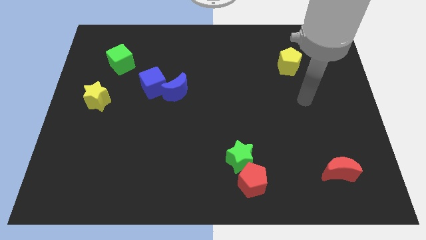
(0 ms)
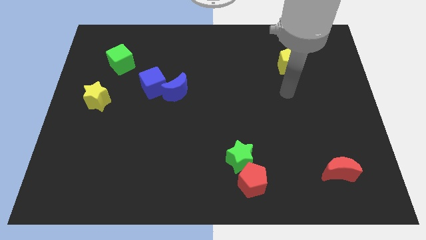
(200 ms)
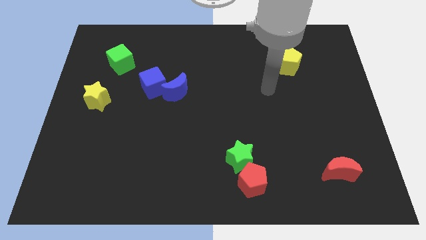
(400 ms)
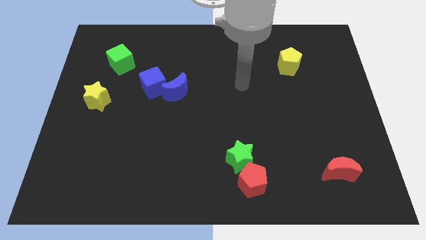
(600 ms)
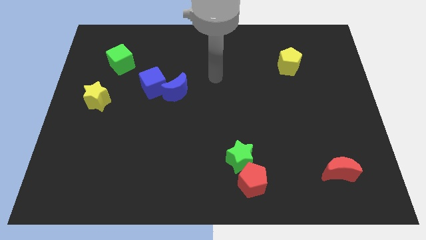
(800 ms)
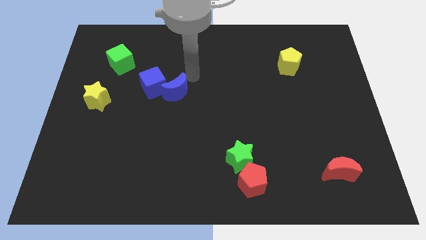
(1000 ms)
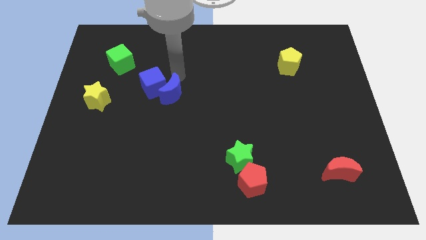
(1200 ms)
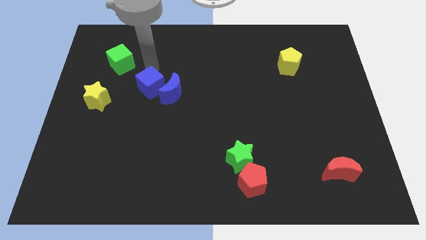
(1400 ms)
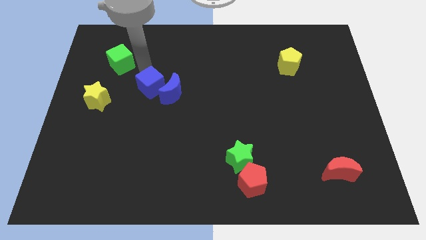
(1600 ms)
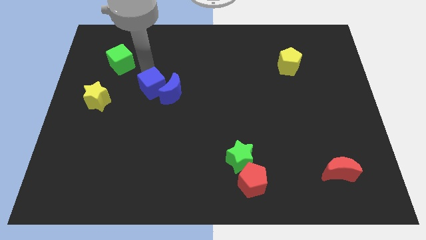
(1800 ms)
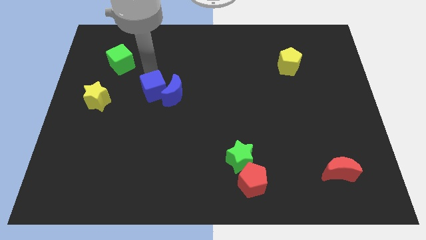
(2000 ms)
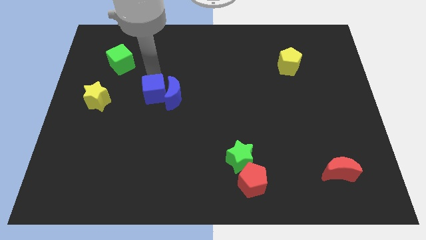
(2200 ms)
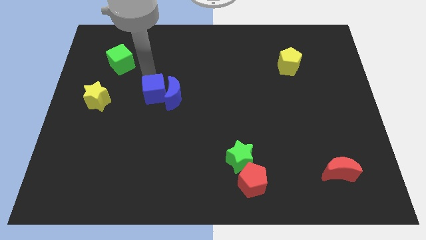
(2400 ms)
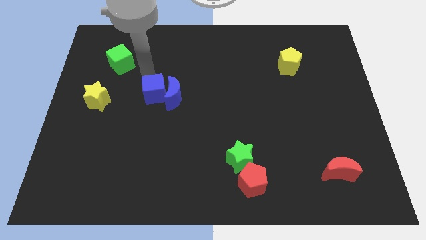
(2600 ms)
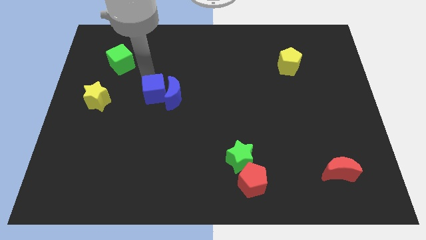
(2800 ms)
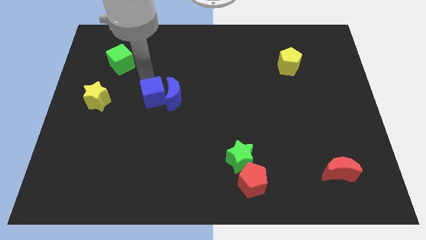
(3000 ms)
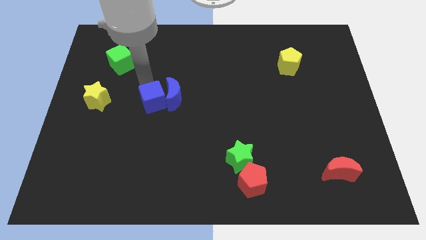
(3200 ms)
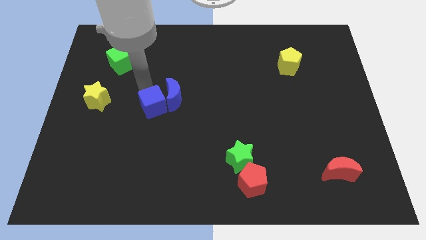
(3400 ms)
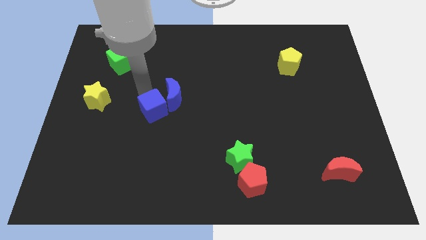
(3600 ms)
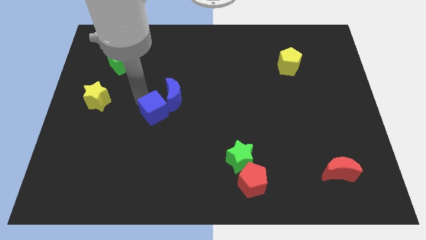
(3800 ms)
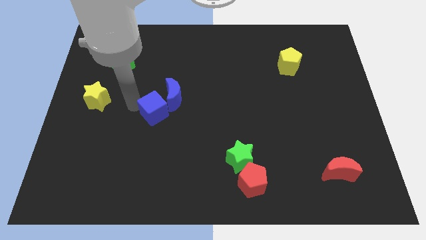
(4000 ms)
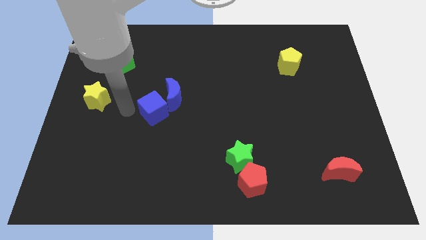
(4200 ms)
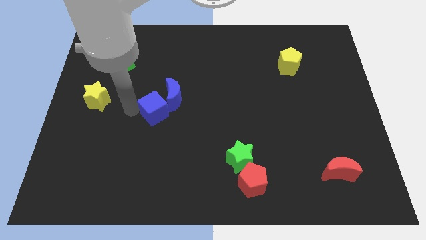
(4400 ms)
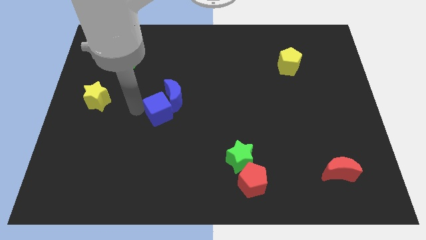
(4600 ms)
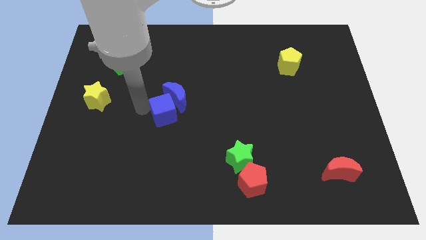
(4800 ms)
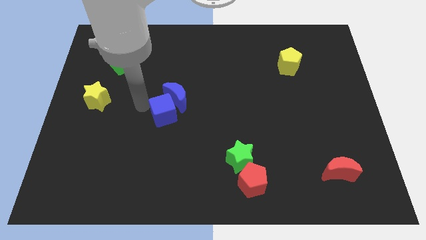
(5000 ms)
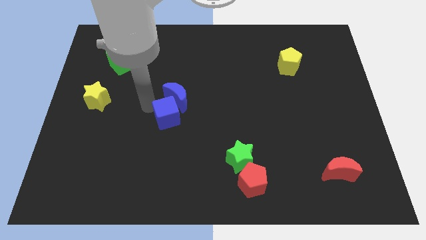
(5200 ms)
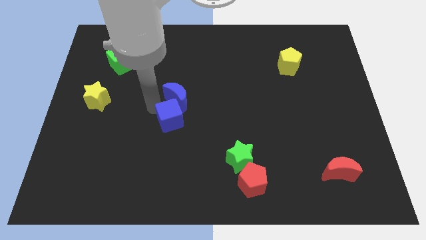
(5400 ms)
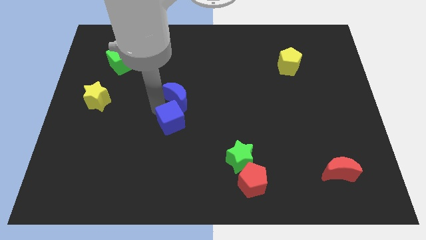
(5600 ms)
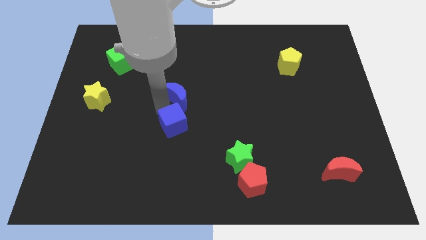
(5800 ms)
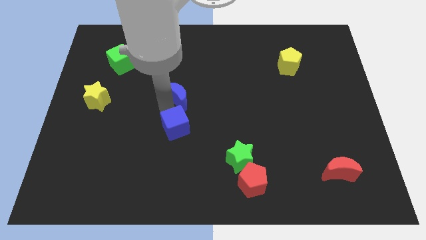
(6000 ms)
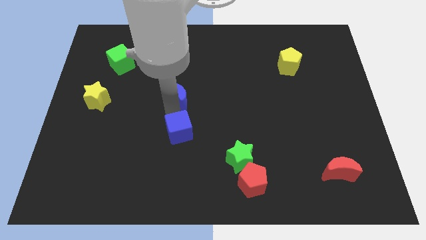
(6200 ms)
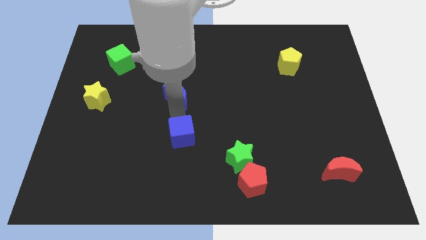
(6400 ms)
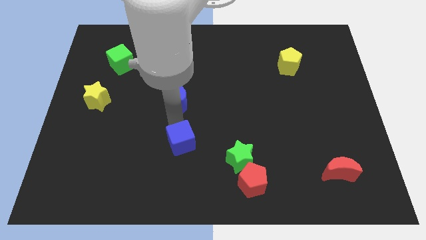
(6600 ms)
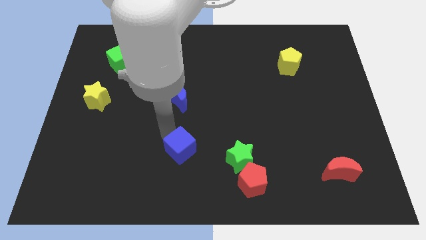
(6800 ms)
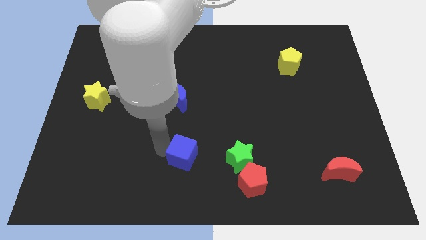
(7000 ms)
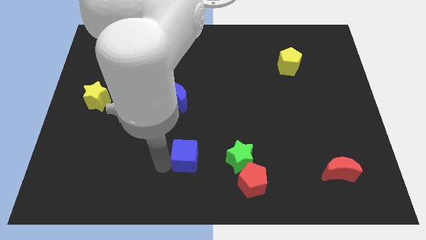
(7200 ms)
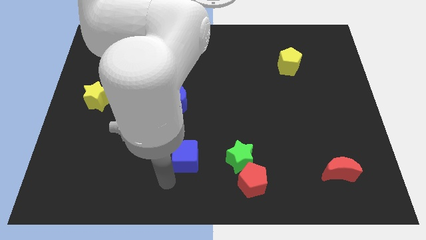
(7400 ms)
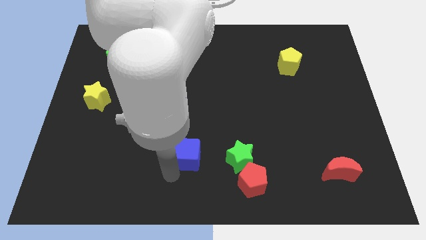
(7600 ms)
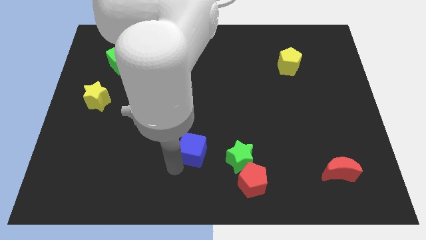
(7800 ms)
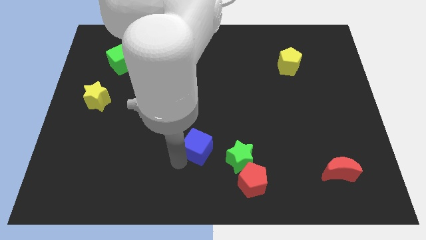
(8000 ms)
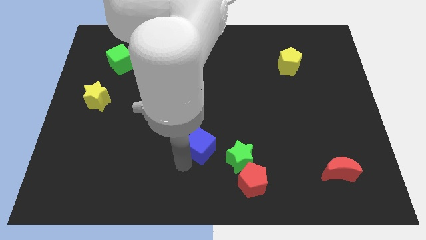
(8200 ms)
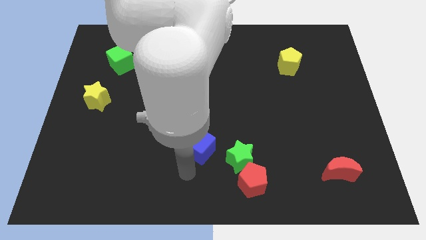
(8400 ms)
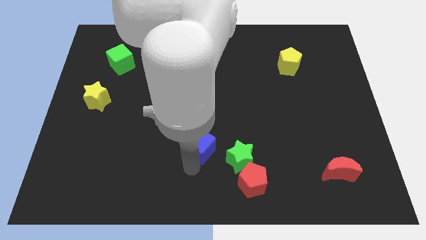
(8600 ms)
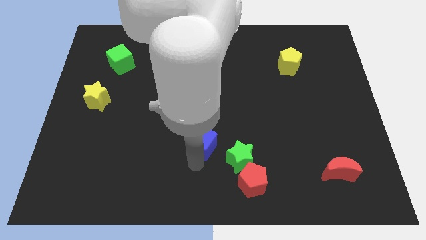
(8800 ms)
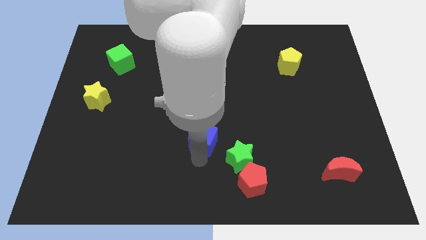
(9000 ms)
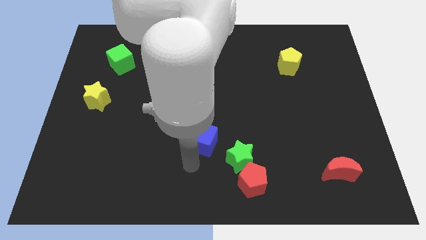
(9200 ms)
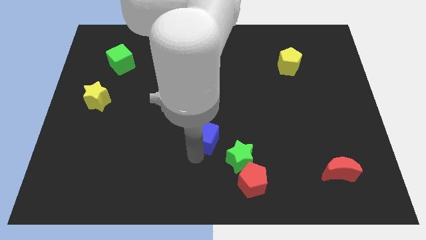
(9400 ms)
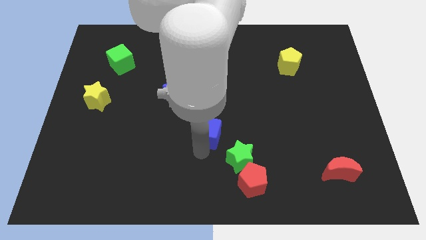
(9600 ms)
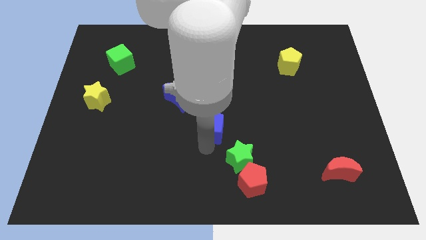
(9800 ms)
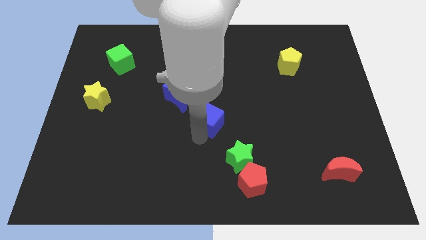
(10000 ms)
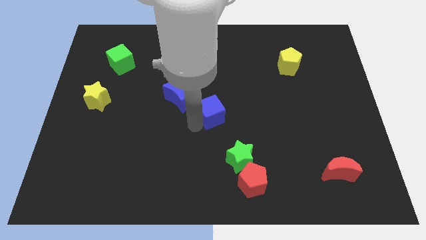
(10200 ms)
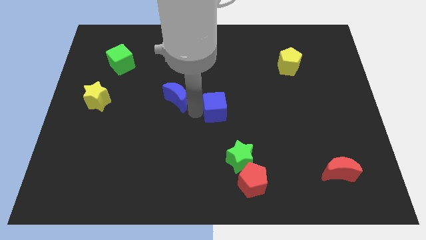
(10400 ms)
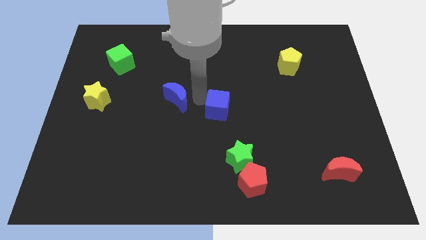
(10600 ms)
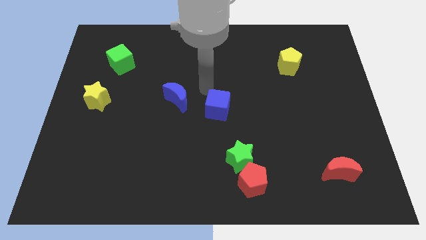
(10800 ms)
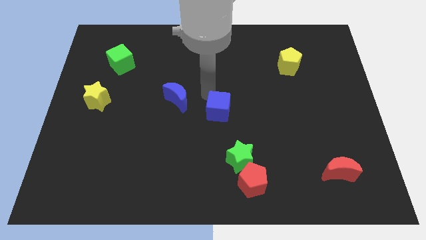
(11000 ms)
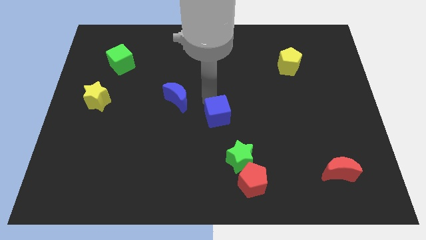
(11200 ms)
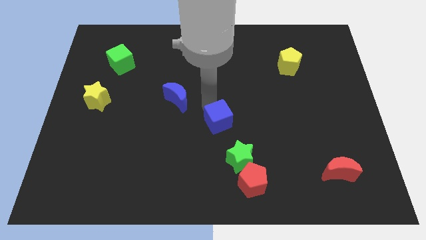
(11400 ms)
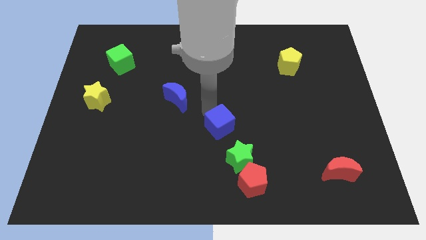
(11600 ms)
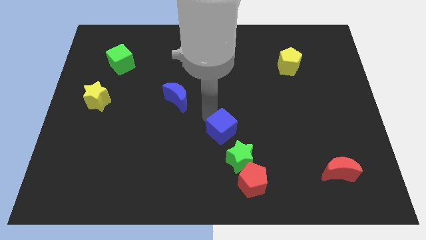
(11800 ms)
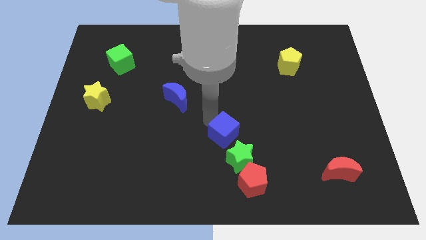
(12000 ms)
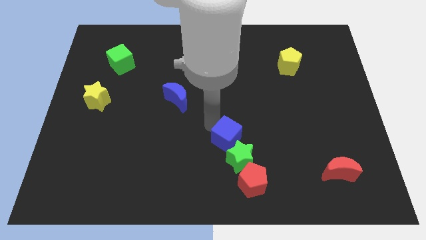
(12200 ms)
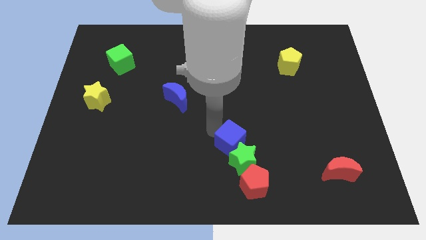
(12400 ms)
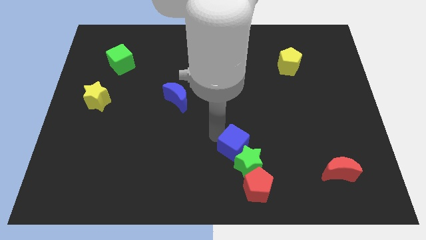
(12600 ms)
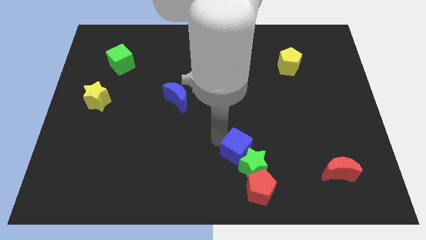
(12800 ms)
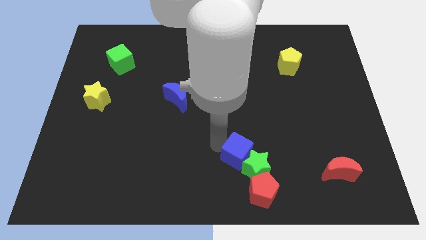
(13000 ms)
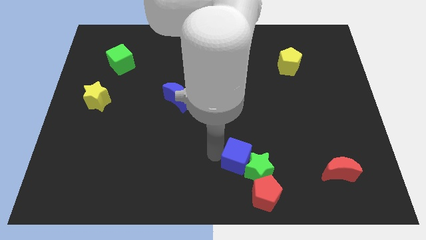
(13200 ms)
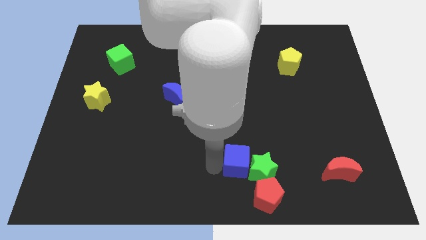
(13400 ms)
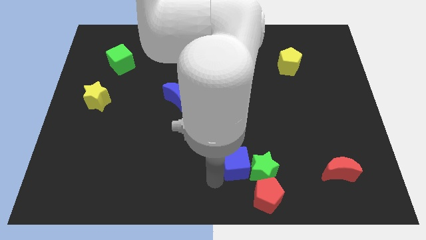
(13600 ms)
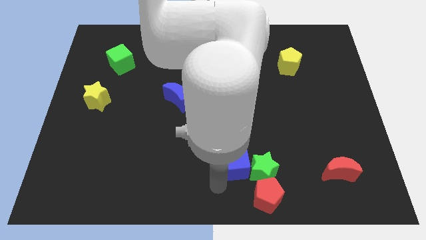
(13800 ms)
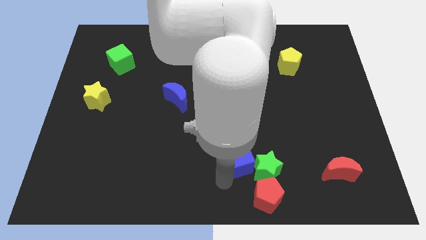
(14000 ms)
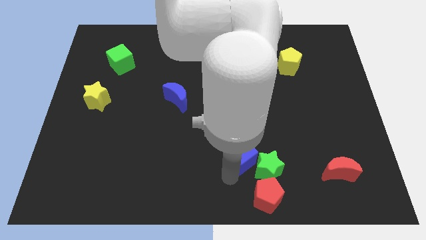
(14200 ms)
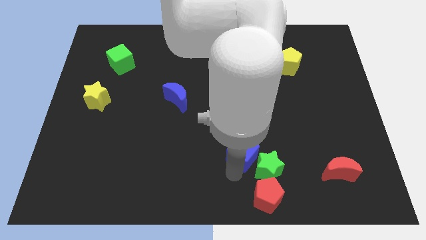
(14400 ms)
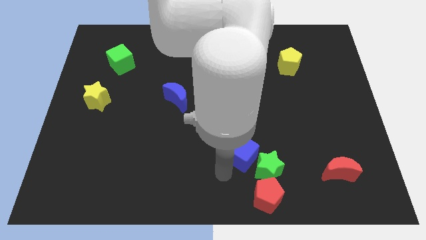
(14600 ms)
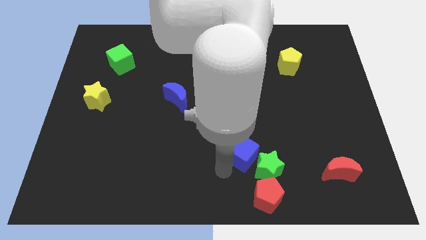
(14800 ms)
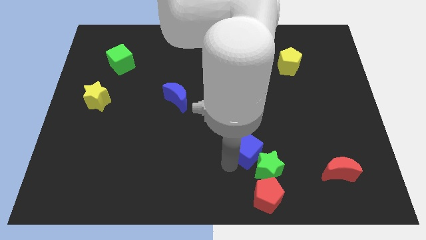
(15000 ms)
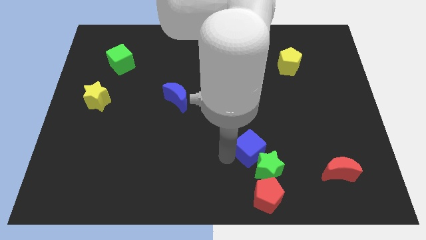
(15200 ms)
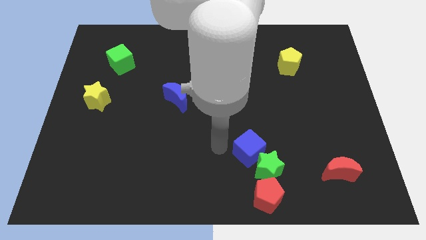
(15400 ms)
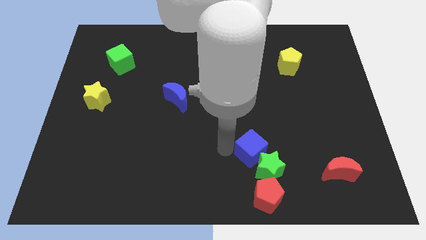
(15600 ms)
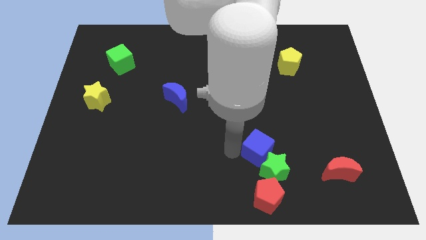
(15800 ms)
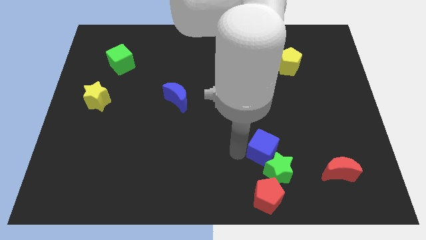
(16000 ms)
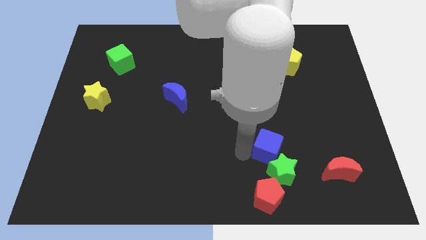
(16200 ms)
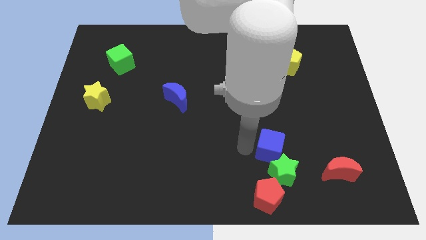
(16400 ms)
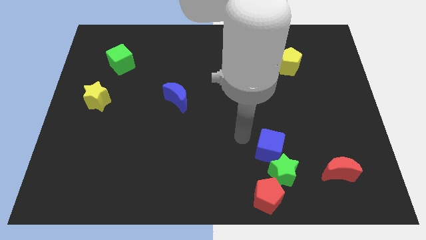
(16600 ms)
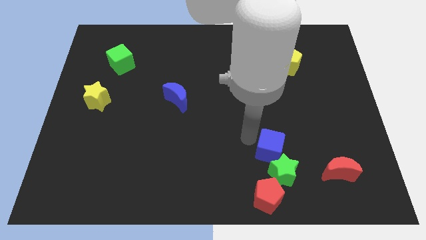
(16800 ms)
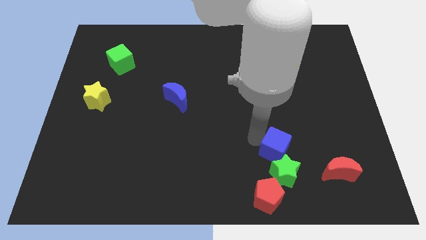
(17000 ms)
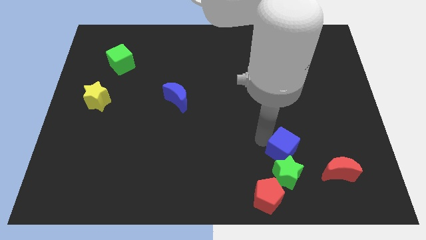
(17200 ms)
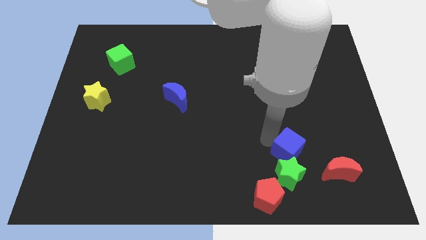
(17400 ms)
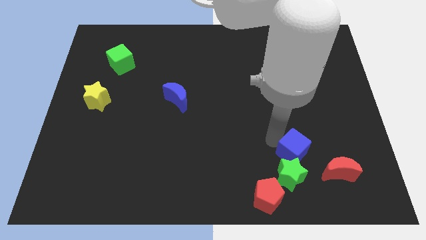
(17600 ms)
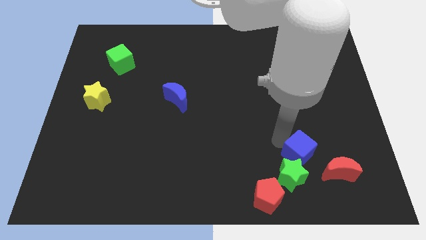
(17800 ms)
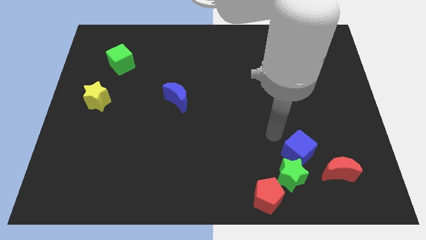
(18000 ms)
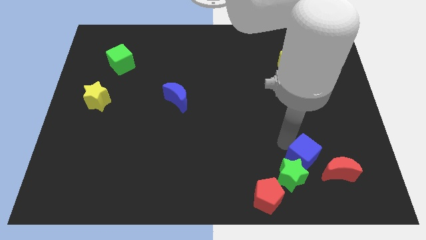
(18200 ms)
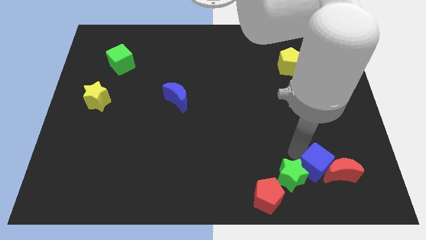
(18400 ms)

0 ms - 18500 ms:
push the blue cube to the red moon
